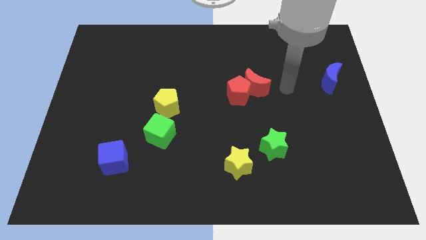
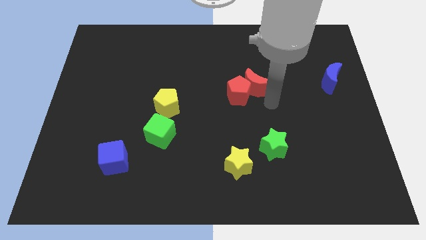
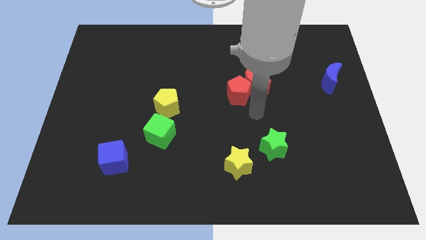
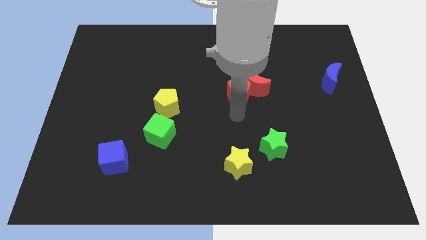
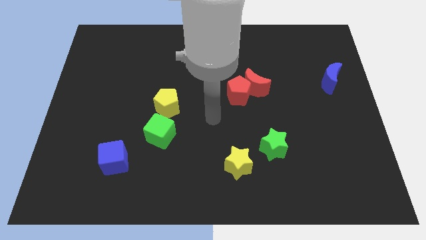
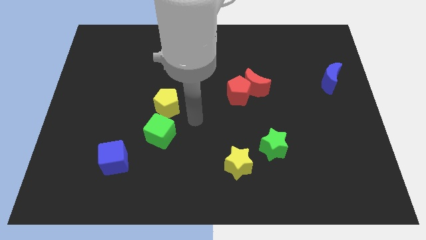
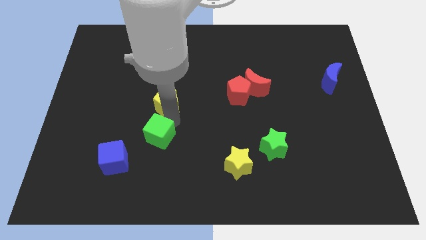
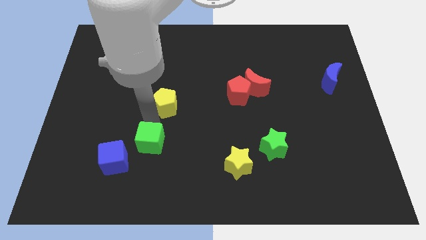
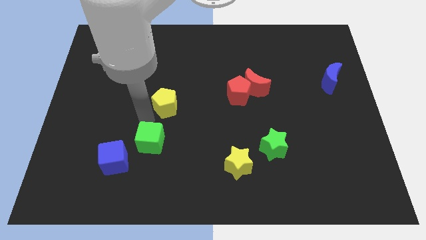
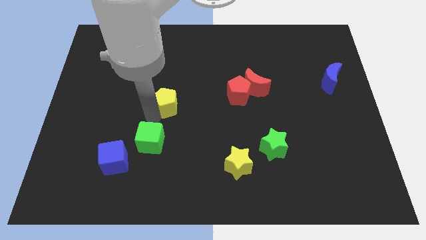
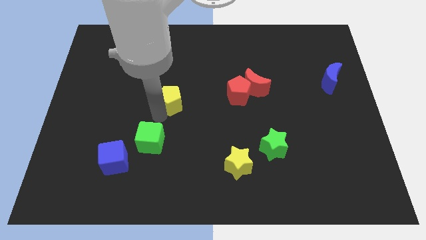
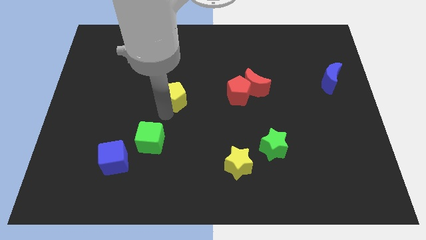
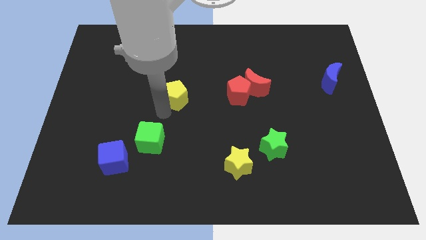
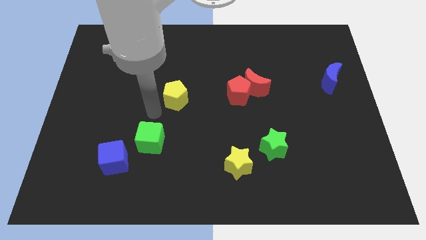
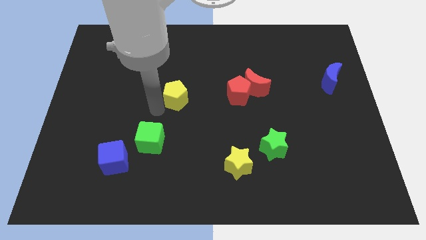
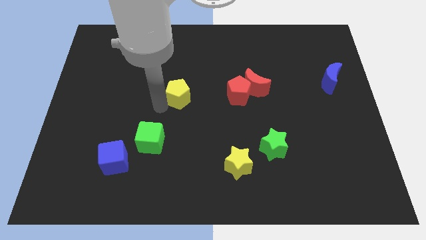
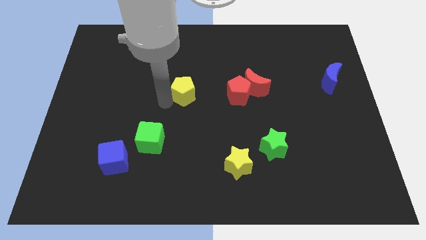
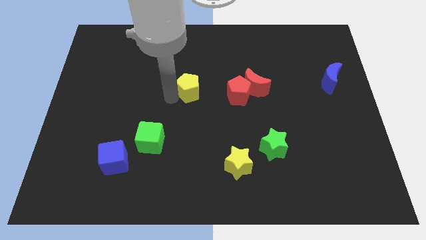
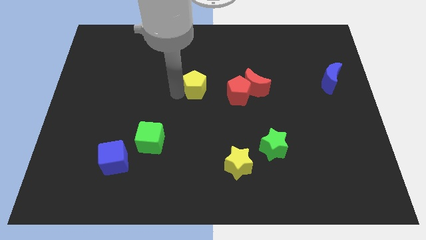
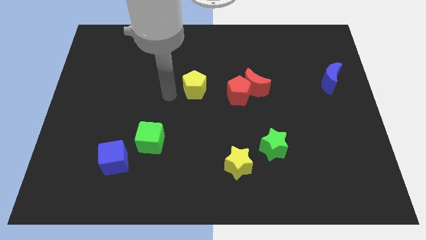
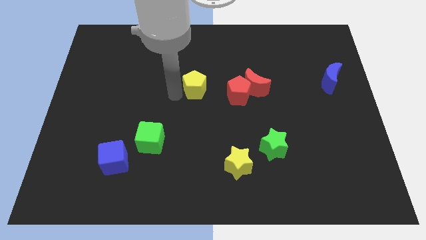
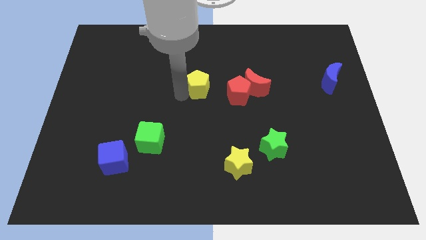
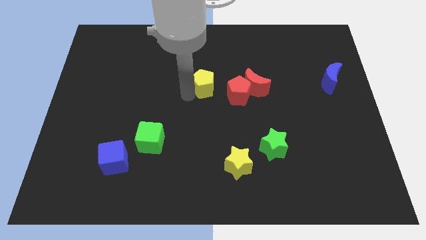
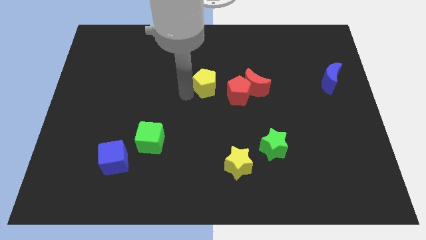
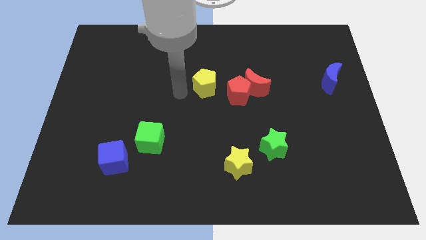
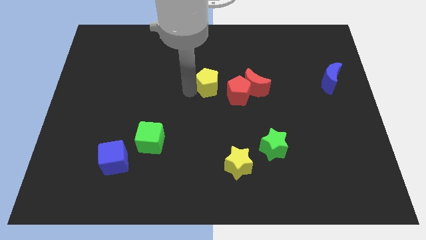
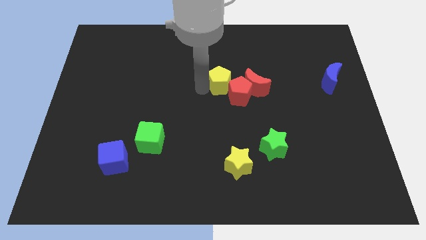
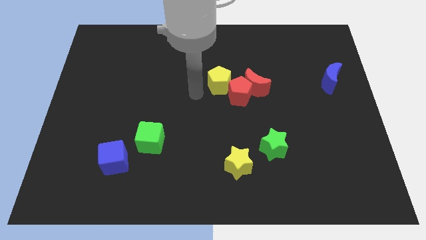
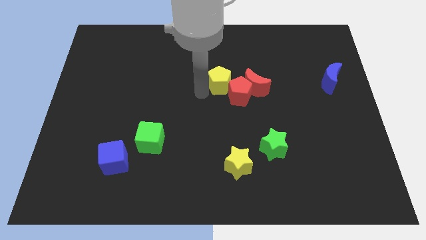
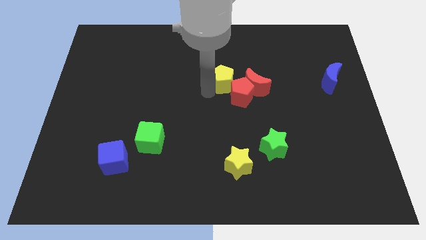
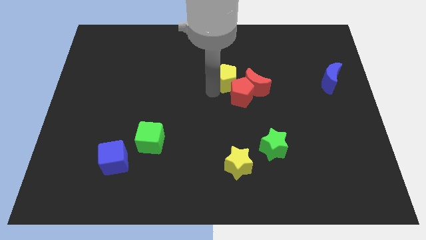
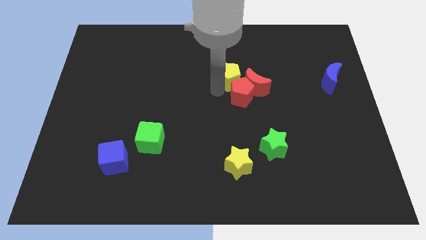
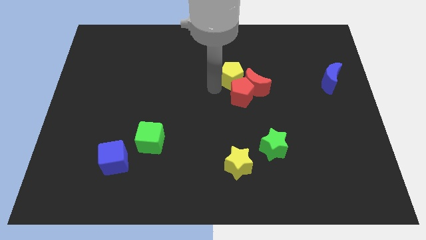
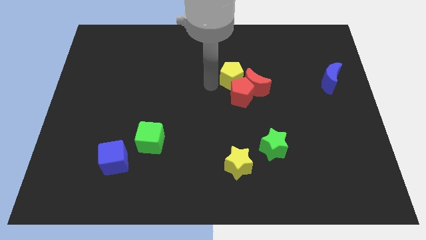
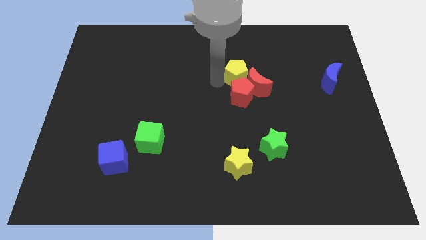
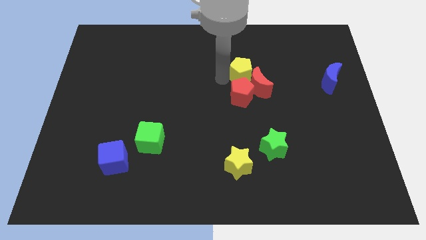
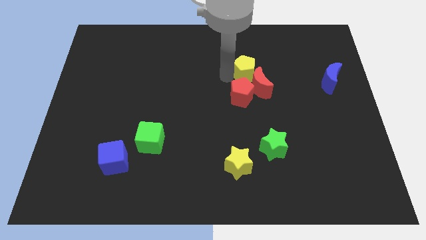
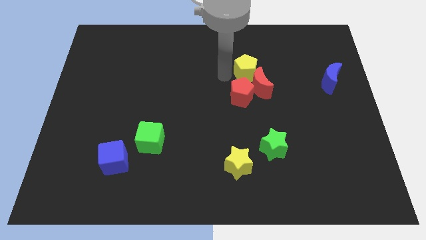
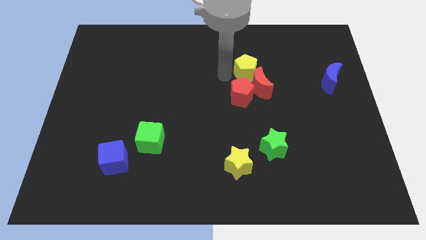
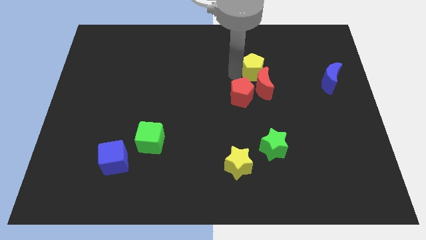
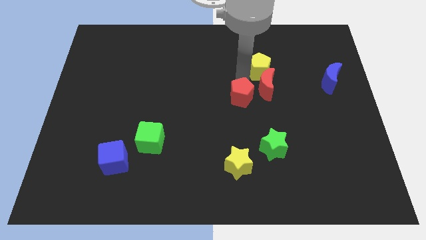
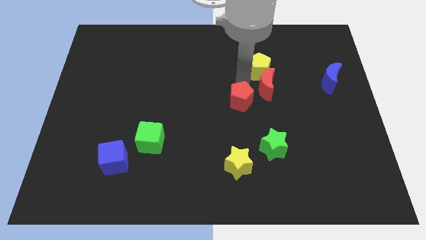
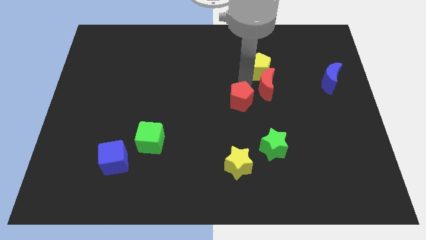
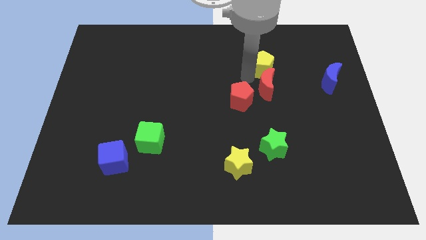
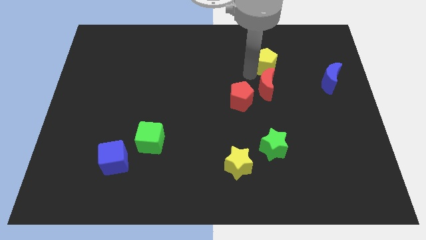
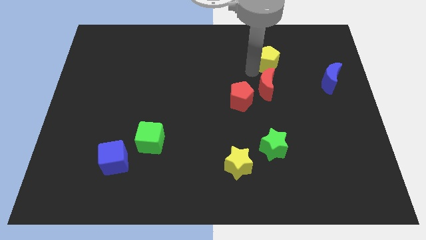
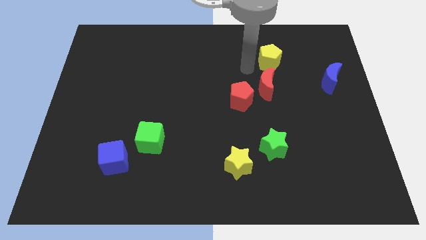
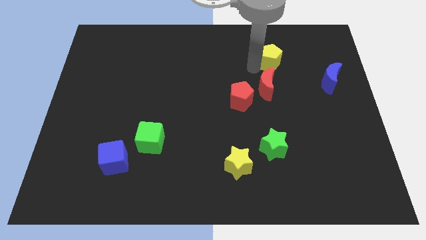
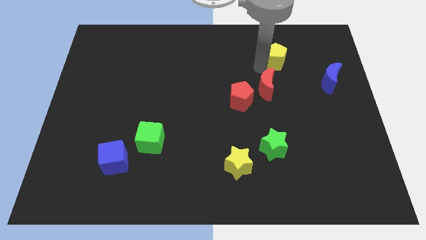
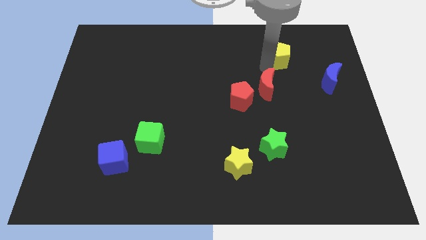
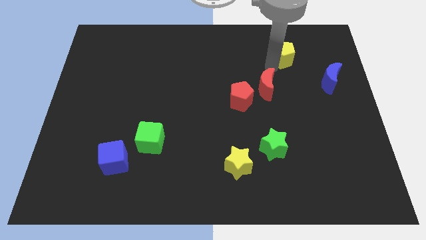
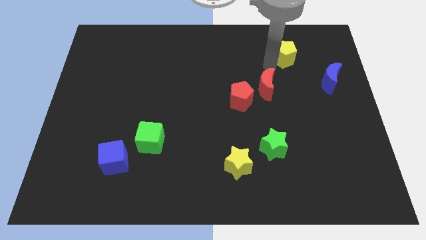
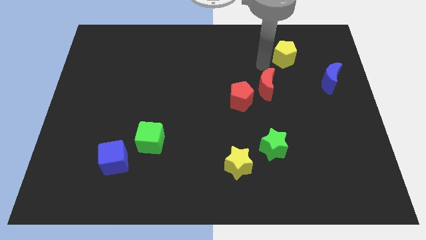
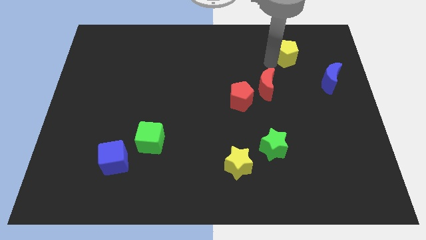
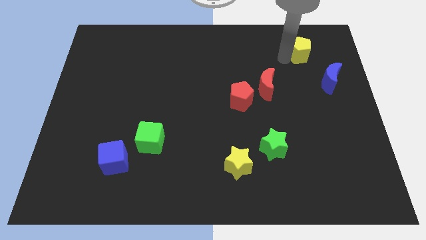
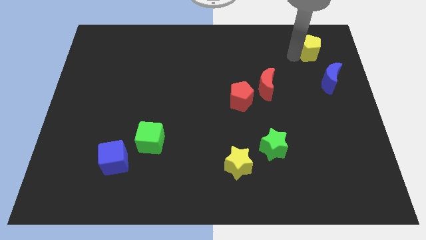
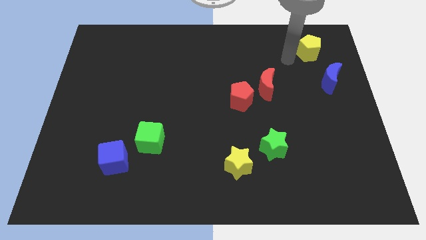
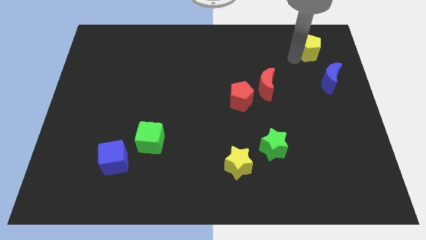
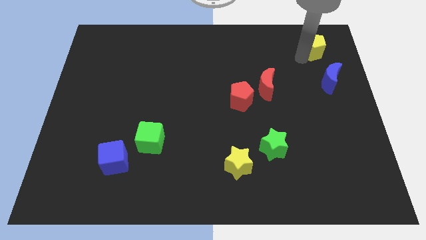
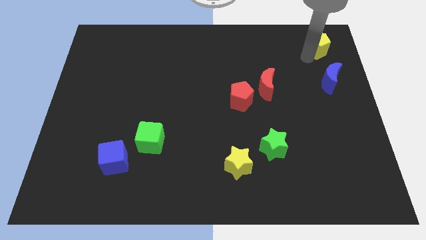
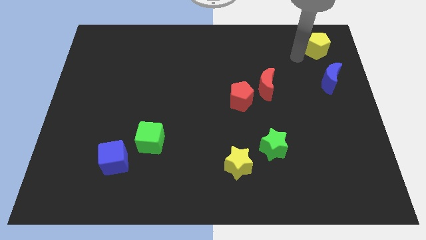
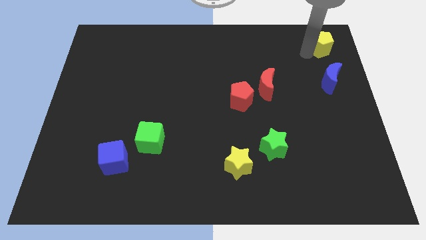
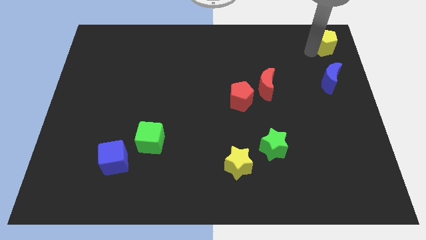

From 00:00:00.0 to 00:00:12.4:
put the yellow pentagon to the top right of the board

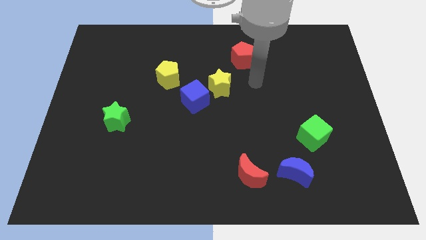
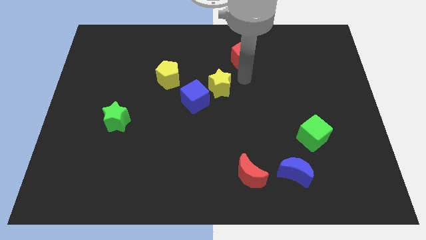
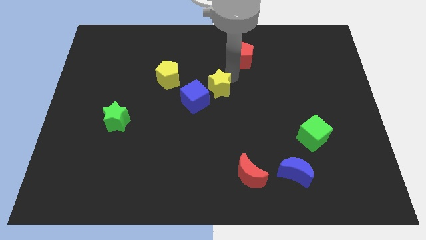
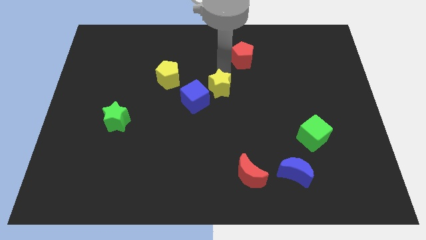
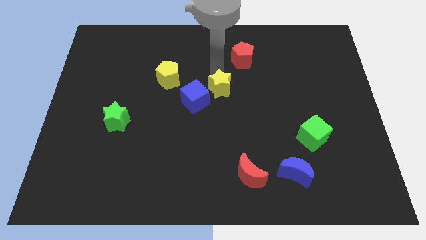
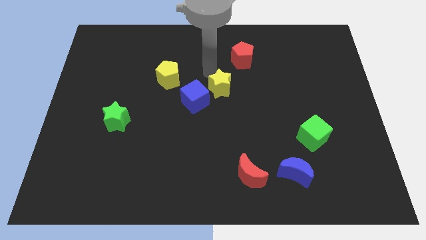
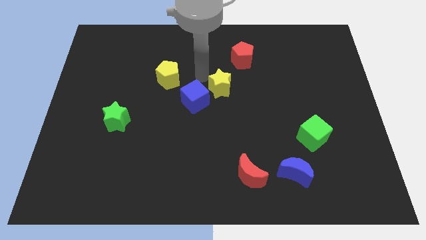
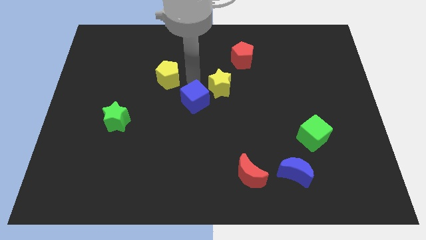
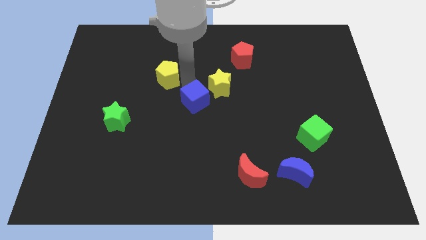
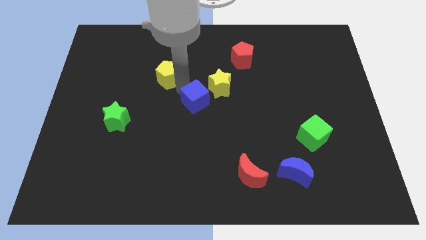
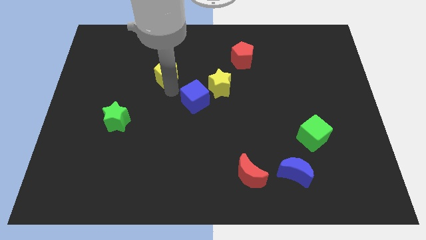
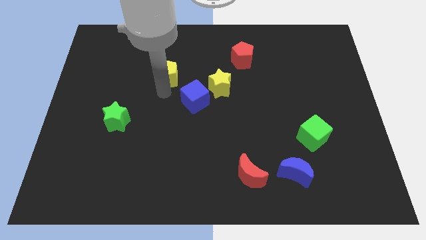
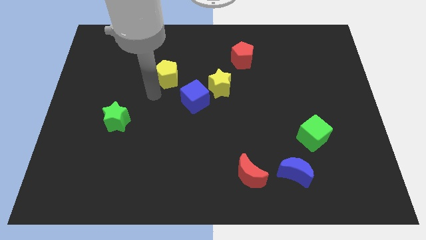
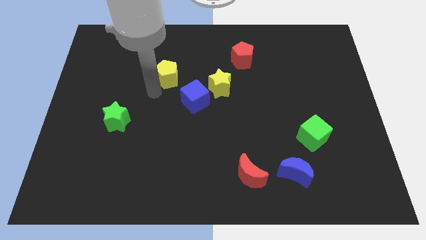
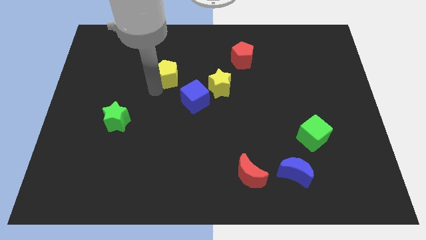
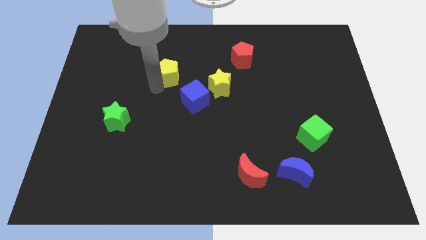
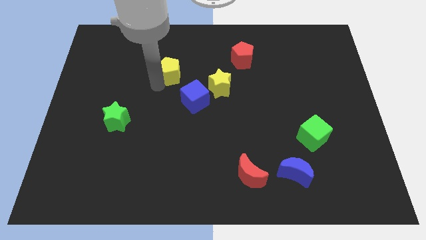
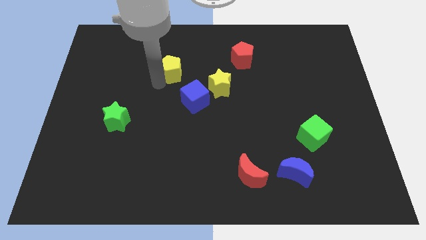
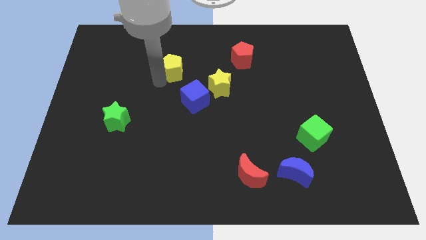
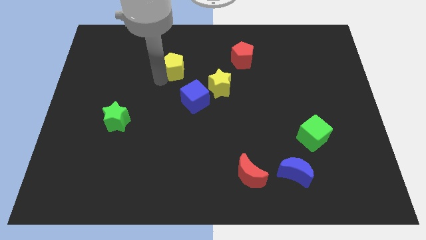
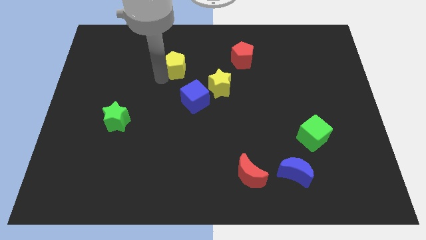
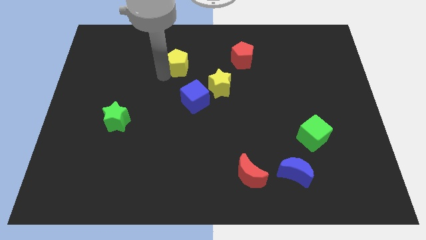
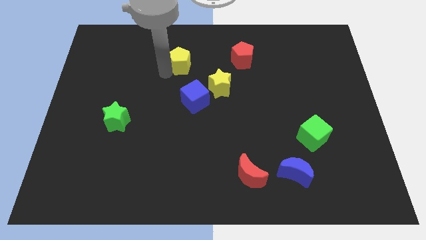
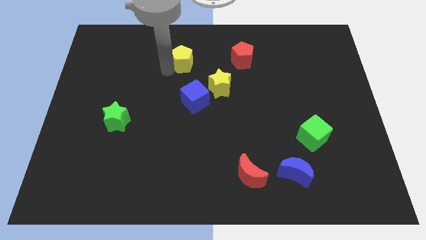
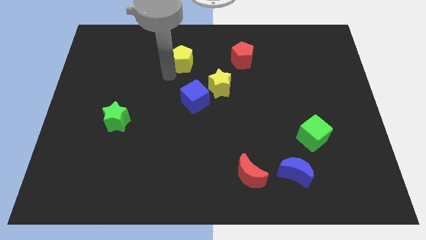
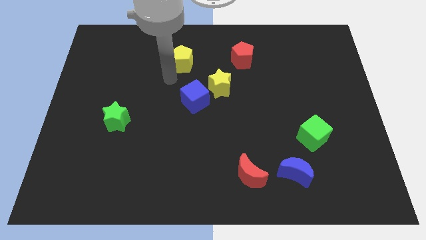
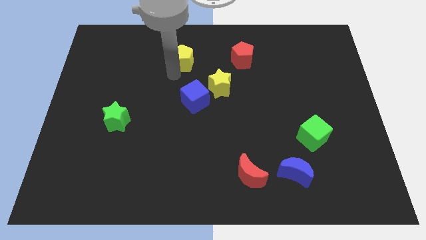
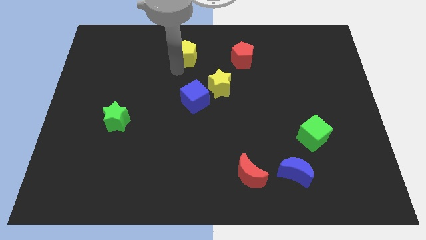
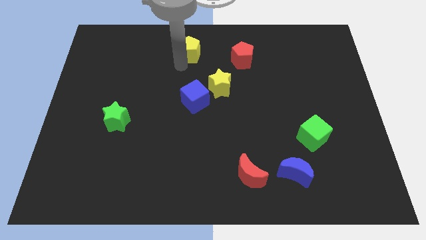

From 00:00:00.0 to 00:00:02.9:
push the yellow pentagon to the top side
